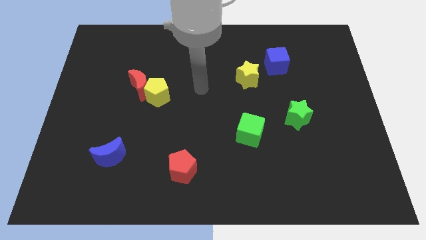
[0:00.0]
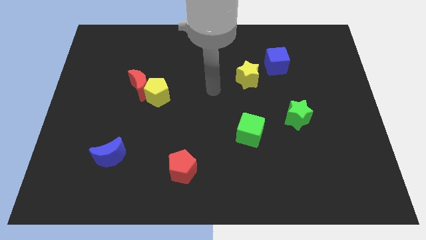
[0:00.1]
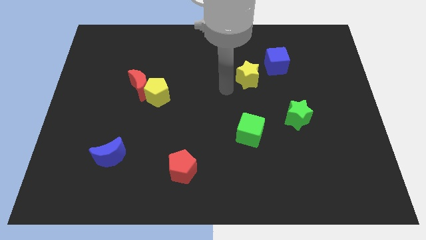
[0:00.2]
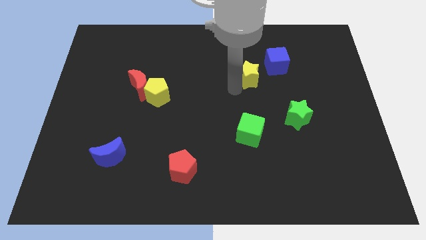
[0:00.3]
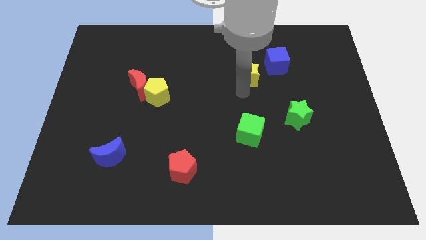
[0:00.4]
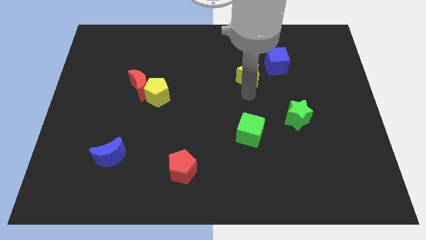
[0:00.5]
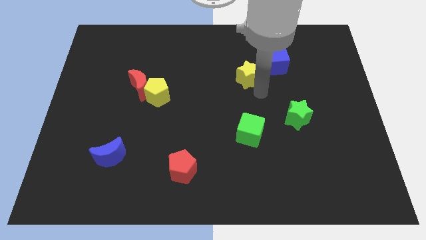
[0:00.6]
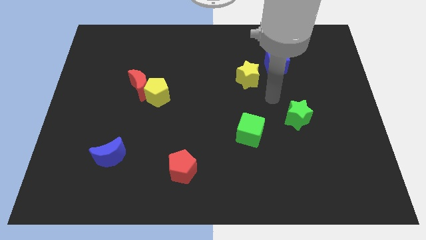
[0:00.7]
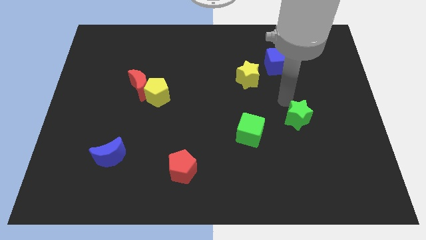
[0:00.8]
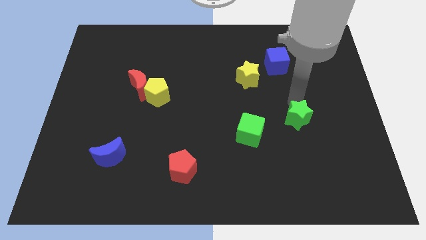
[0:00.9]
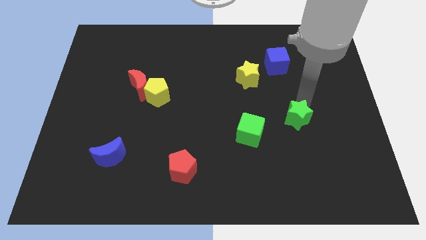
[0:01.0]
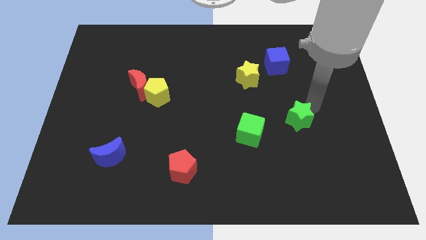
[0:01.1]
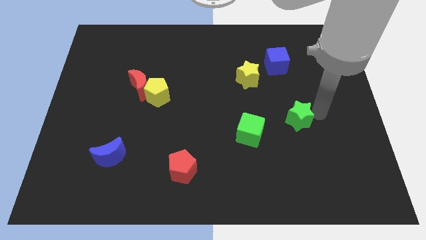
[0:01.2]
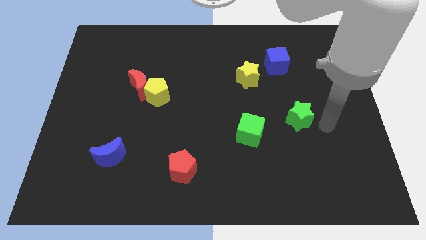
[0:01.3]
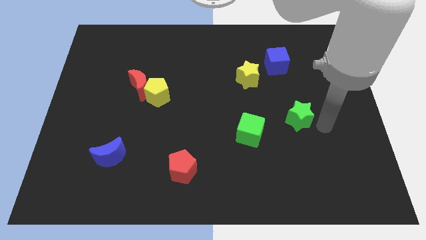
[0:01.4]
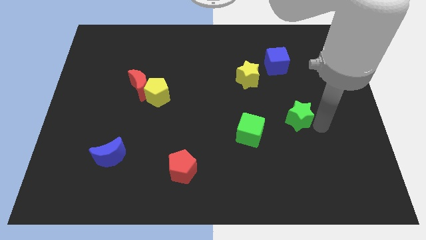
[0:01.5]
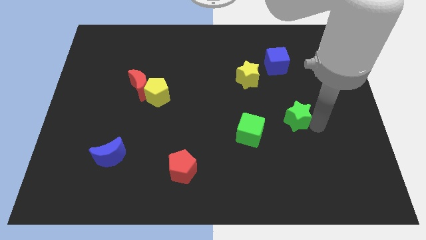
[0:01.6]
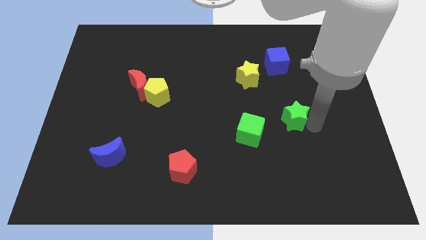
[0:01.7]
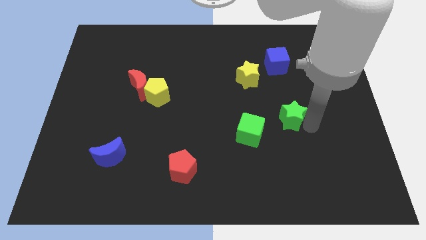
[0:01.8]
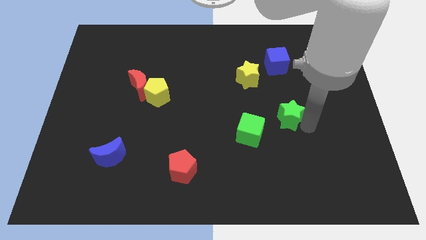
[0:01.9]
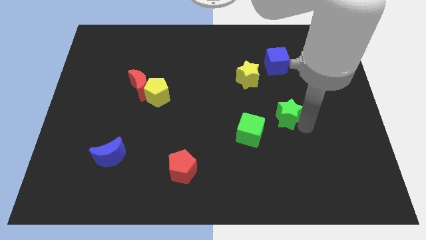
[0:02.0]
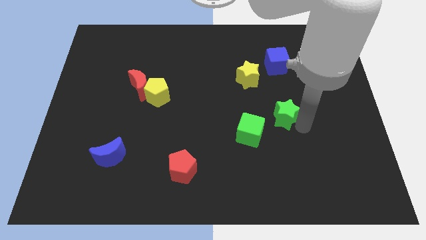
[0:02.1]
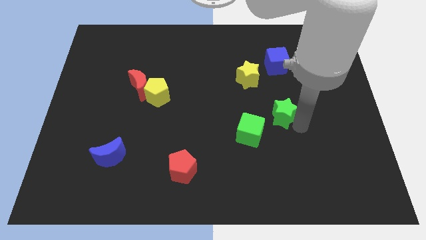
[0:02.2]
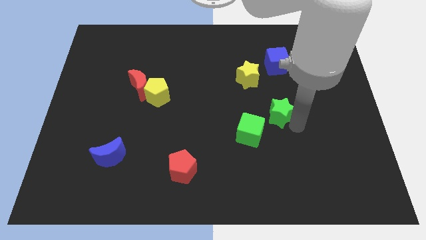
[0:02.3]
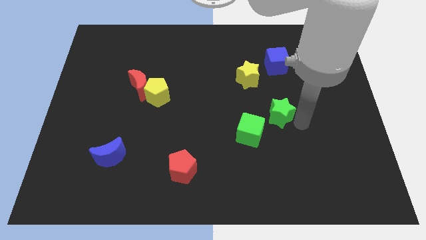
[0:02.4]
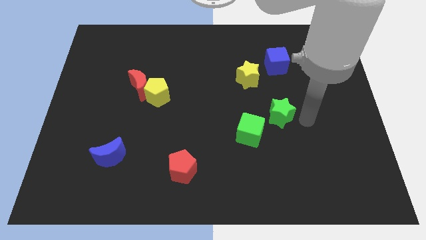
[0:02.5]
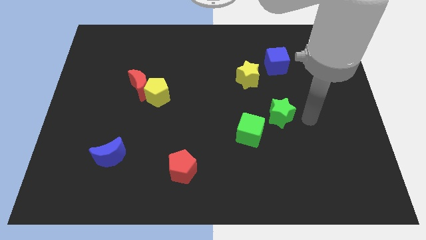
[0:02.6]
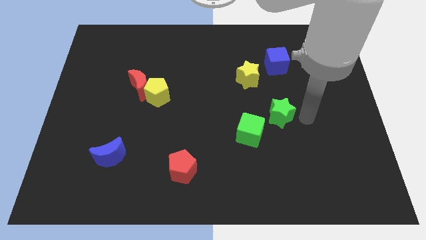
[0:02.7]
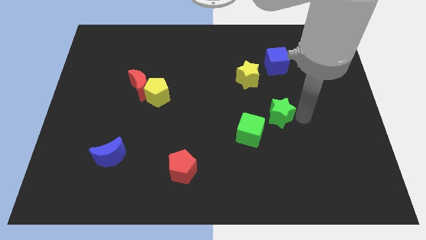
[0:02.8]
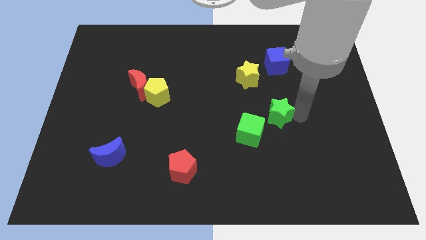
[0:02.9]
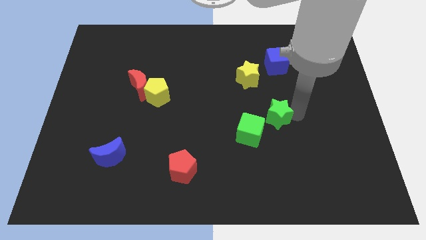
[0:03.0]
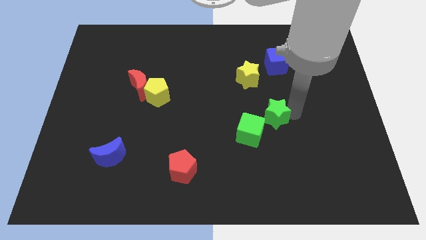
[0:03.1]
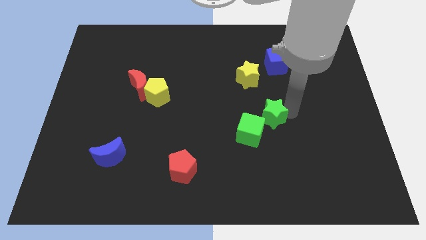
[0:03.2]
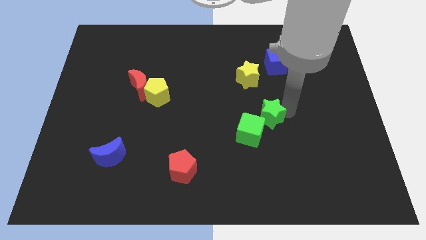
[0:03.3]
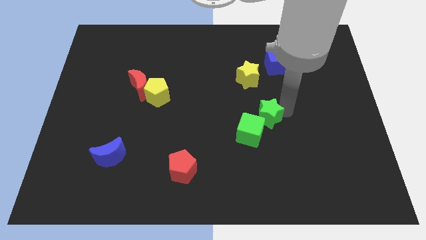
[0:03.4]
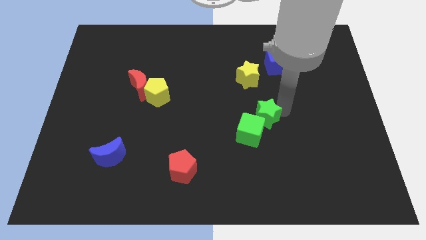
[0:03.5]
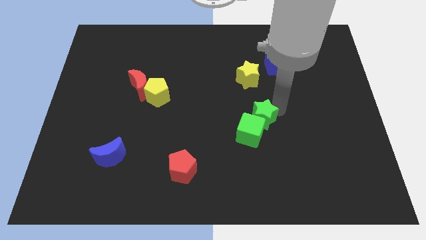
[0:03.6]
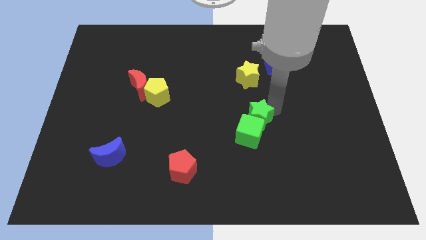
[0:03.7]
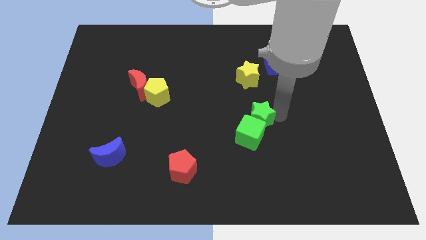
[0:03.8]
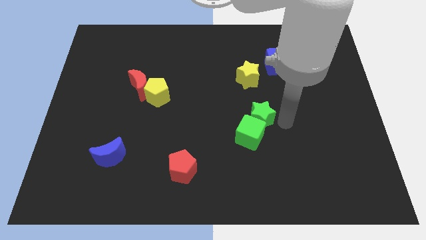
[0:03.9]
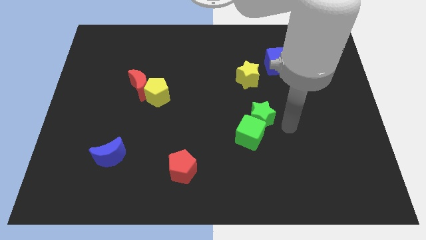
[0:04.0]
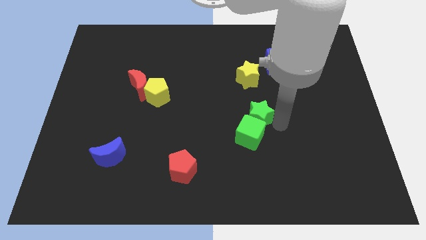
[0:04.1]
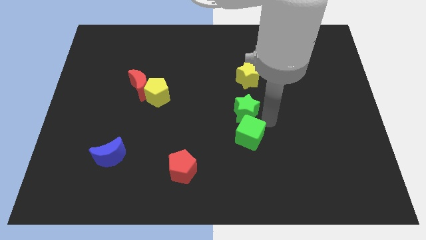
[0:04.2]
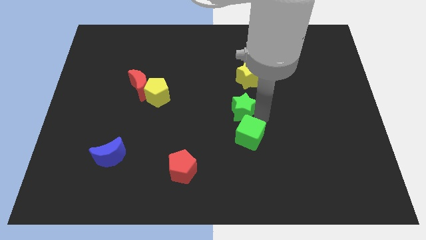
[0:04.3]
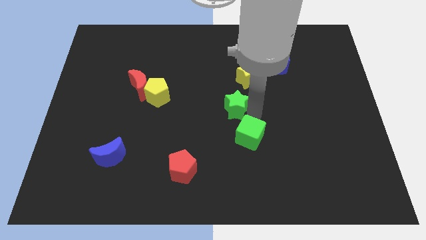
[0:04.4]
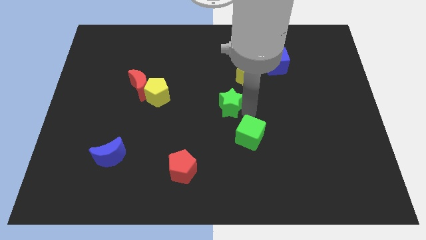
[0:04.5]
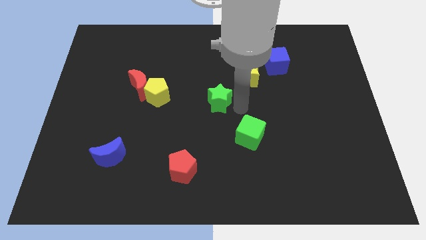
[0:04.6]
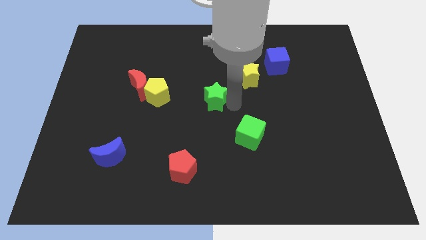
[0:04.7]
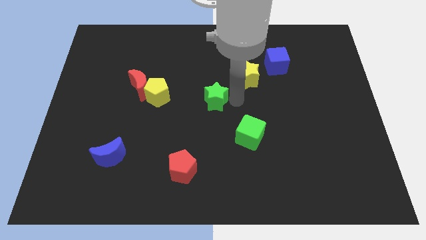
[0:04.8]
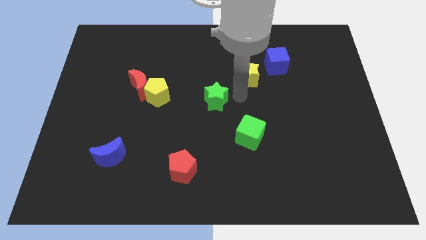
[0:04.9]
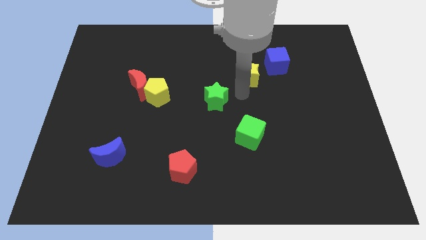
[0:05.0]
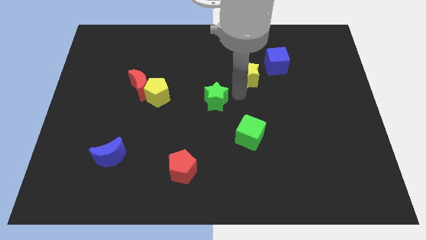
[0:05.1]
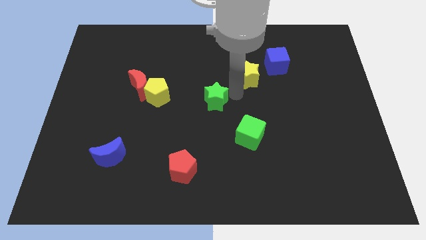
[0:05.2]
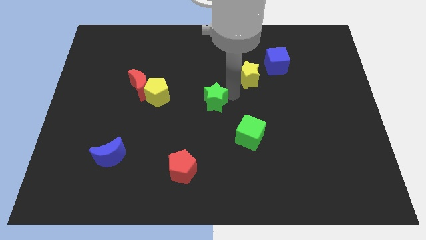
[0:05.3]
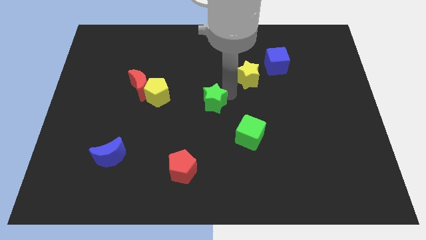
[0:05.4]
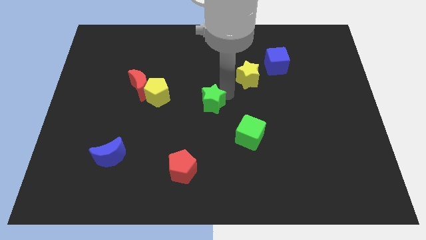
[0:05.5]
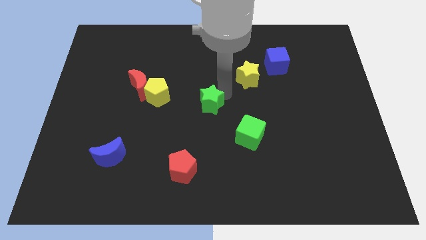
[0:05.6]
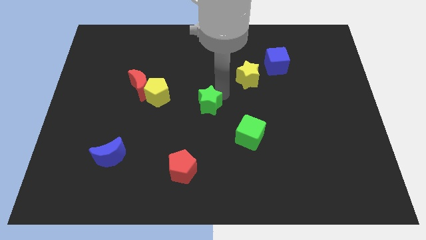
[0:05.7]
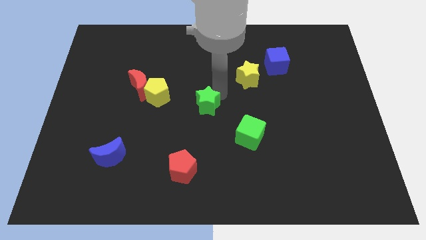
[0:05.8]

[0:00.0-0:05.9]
slide the green star left

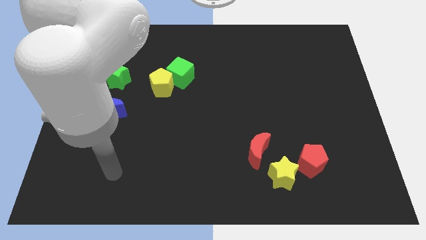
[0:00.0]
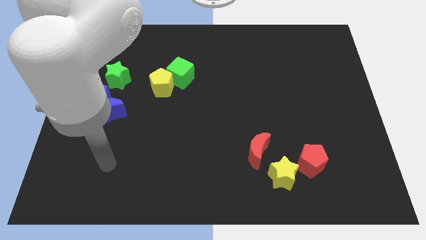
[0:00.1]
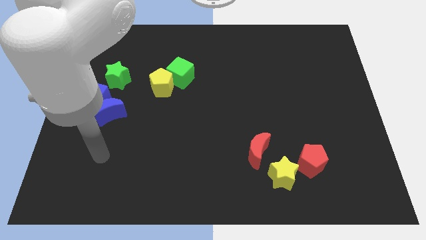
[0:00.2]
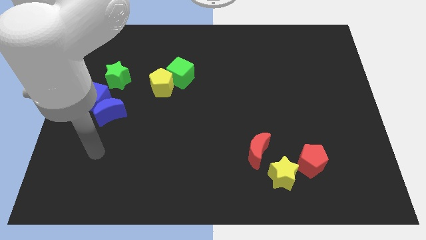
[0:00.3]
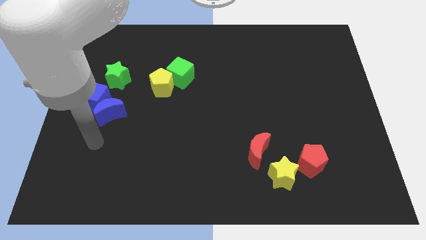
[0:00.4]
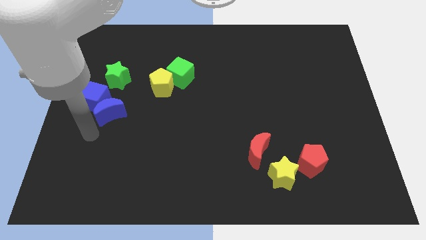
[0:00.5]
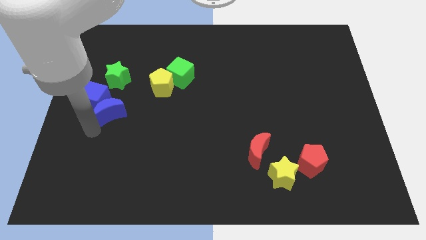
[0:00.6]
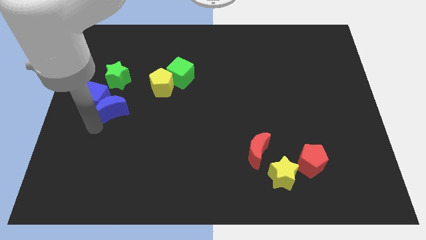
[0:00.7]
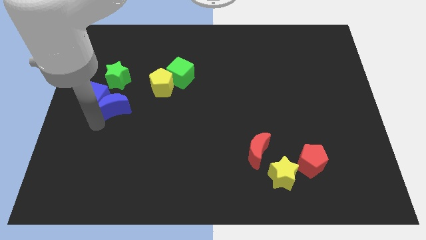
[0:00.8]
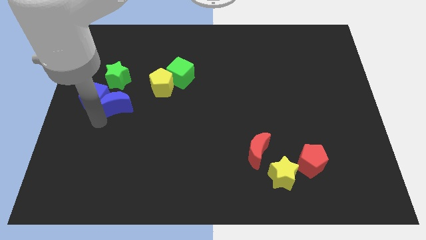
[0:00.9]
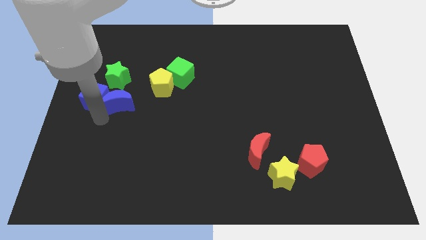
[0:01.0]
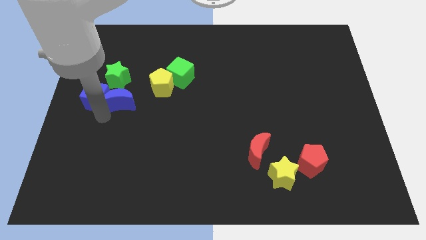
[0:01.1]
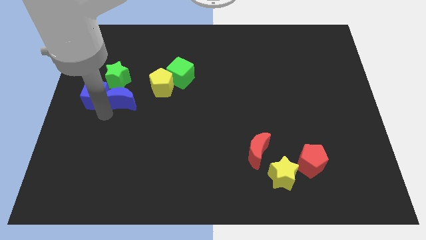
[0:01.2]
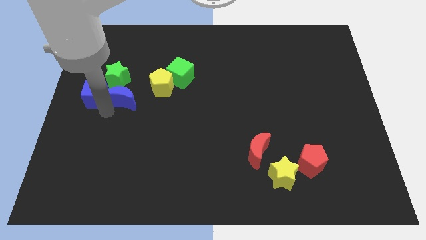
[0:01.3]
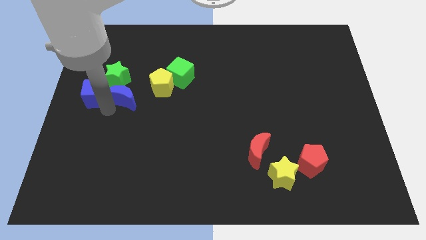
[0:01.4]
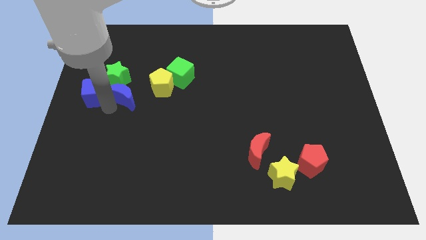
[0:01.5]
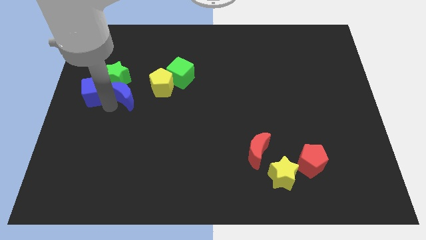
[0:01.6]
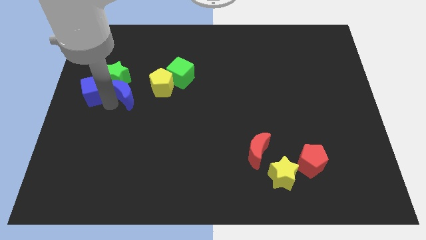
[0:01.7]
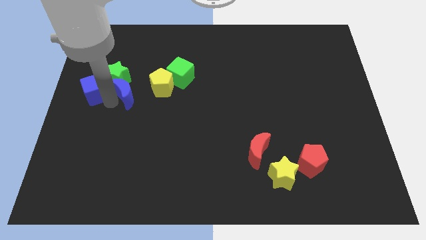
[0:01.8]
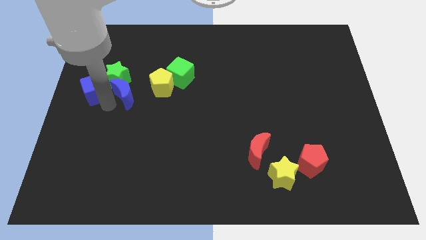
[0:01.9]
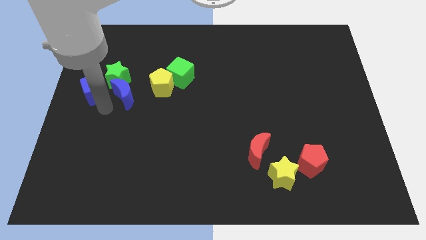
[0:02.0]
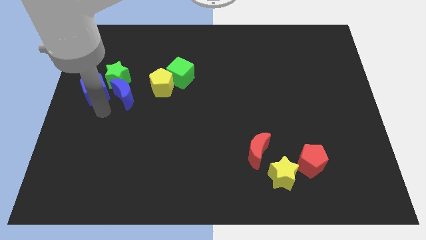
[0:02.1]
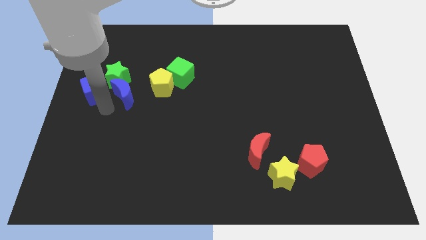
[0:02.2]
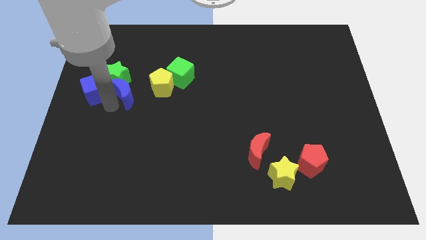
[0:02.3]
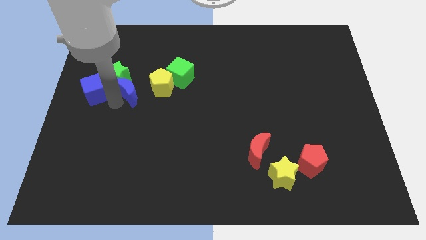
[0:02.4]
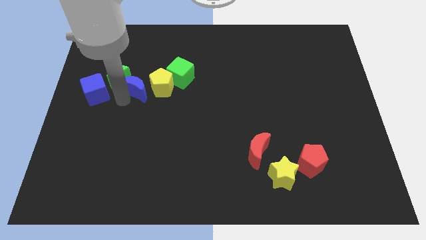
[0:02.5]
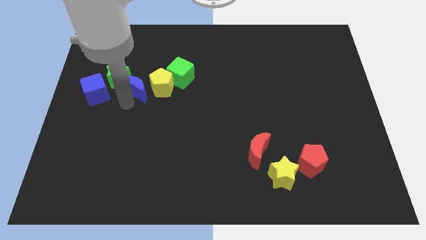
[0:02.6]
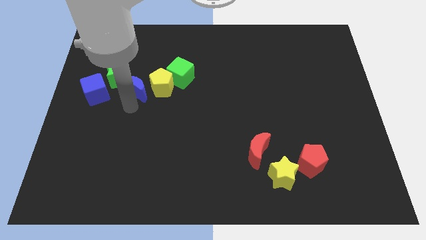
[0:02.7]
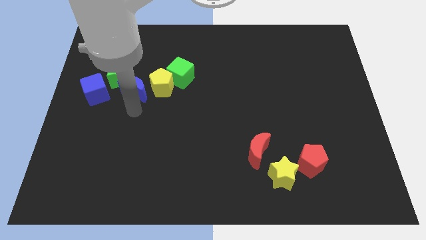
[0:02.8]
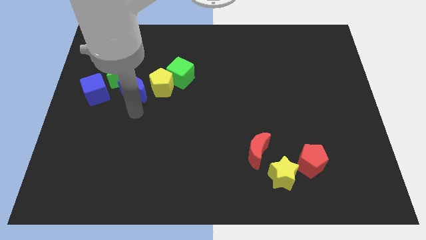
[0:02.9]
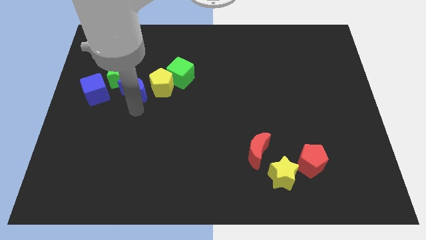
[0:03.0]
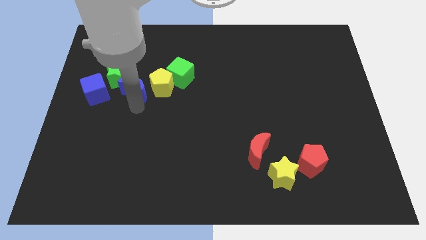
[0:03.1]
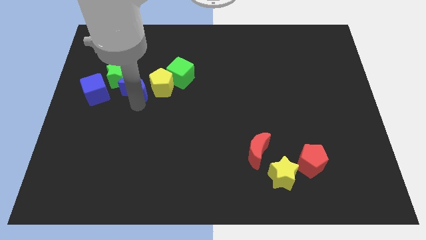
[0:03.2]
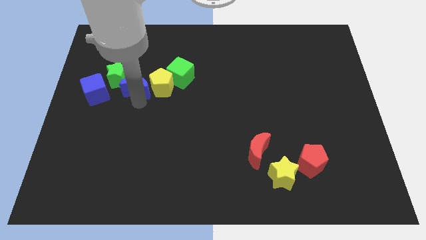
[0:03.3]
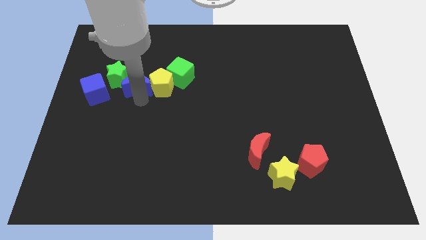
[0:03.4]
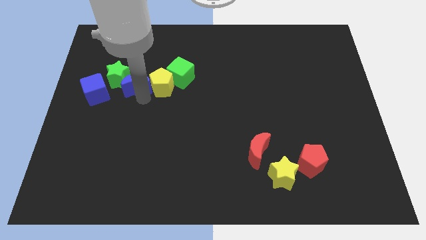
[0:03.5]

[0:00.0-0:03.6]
slightly slide the blue moon upwards
